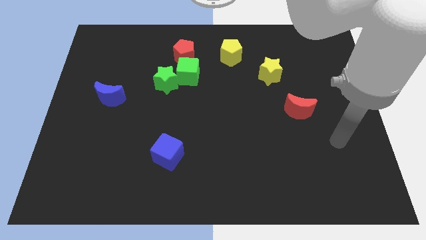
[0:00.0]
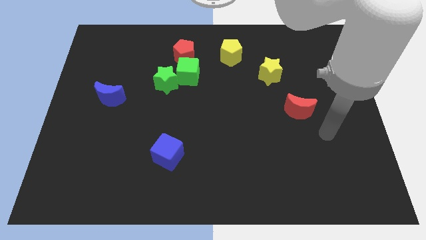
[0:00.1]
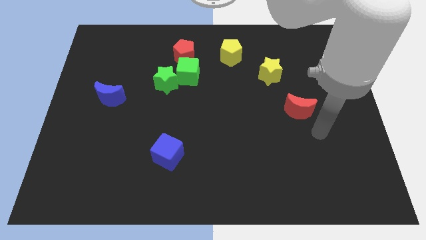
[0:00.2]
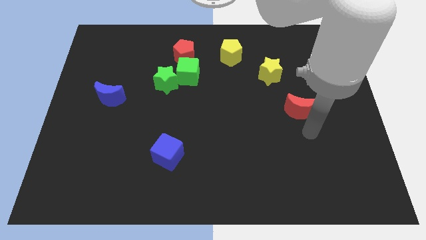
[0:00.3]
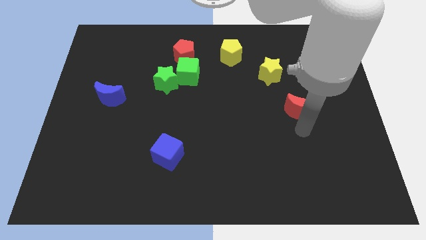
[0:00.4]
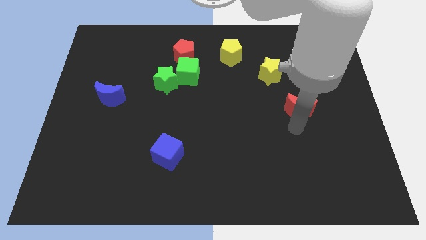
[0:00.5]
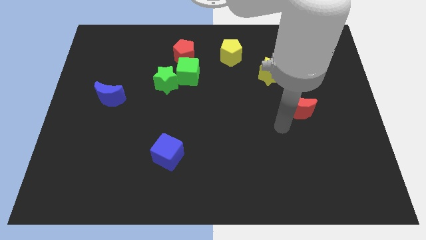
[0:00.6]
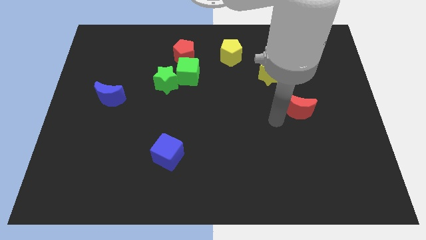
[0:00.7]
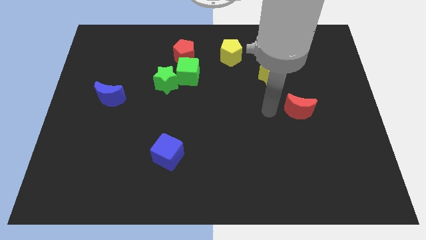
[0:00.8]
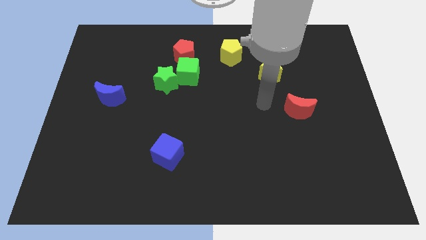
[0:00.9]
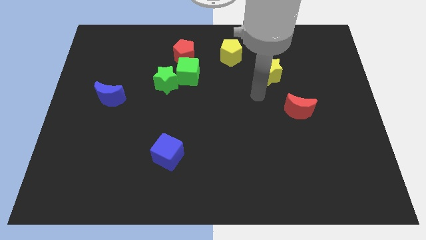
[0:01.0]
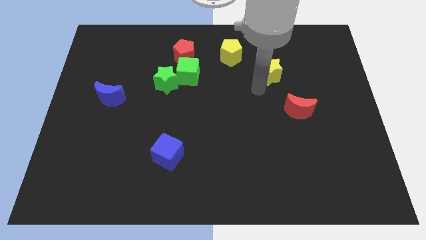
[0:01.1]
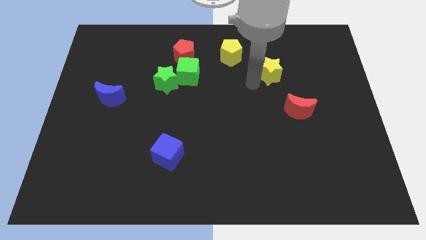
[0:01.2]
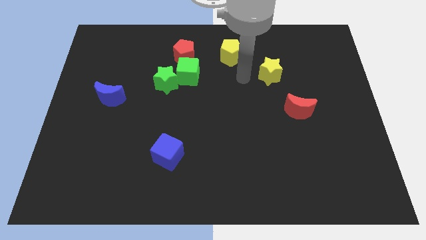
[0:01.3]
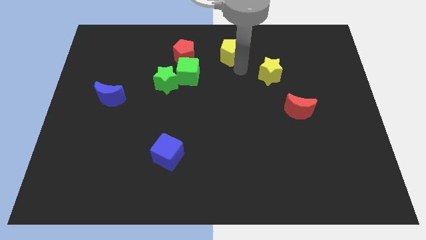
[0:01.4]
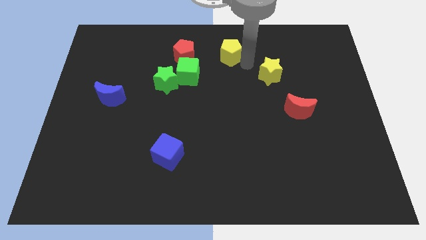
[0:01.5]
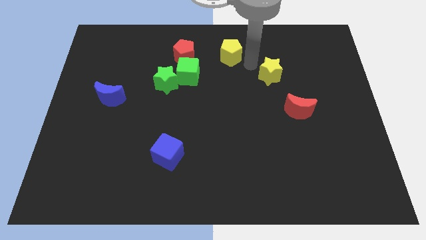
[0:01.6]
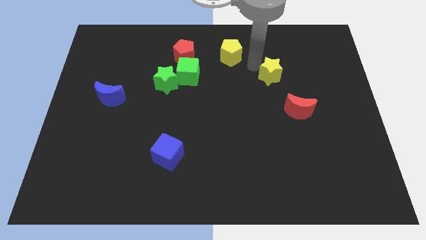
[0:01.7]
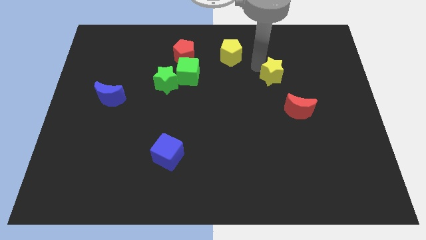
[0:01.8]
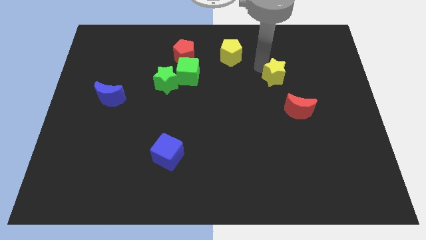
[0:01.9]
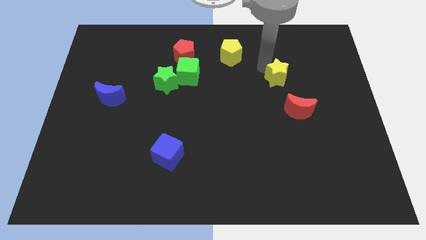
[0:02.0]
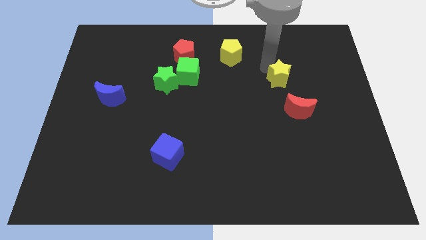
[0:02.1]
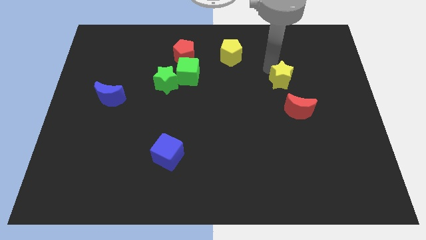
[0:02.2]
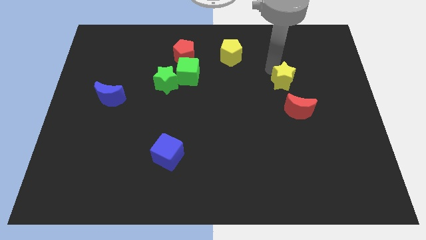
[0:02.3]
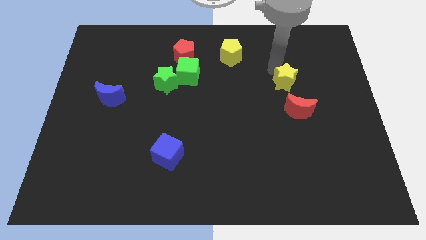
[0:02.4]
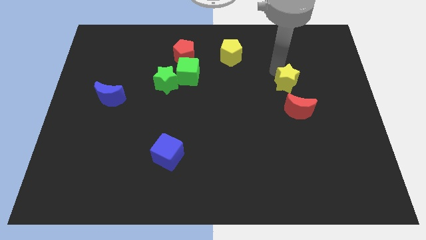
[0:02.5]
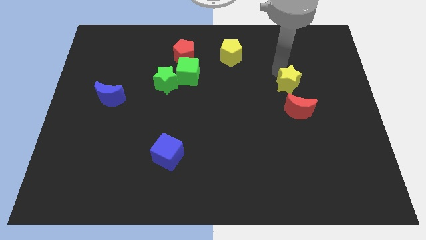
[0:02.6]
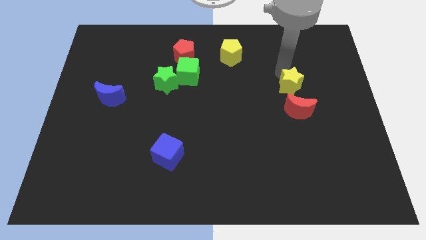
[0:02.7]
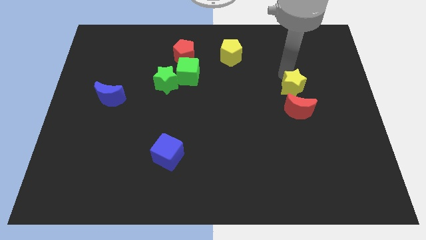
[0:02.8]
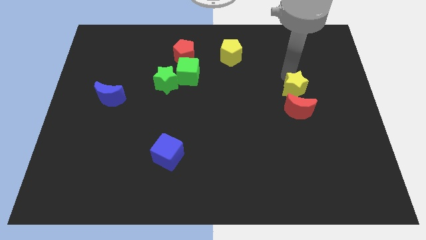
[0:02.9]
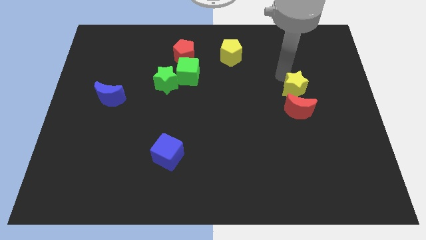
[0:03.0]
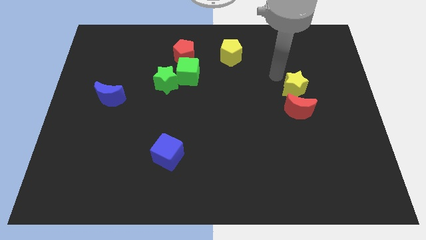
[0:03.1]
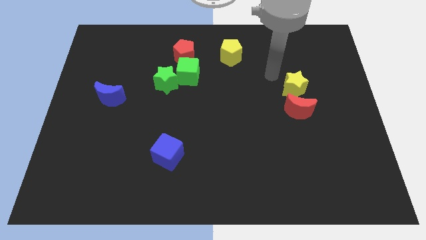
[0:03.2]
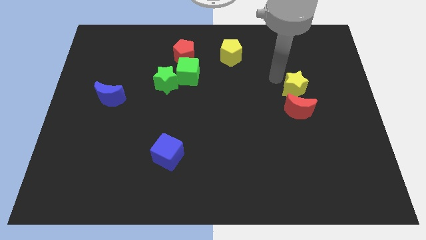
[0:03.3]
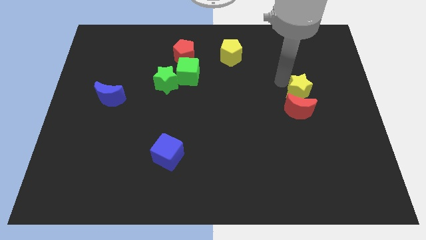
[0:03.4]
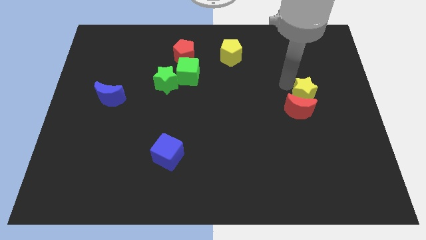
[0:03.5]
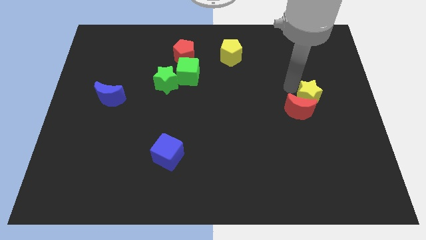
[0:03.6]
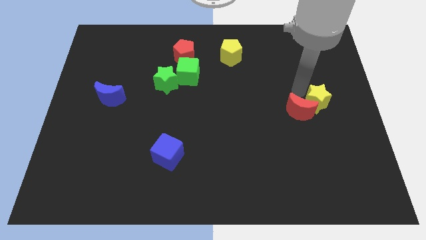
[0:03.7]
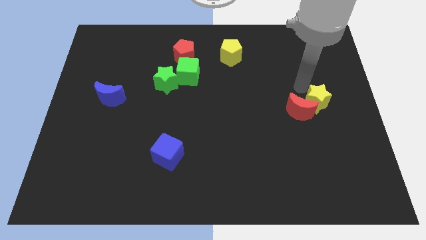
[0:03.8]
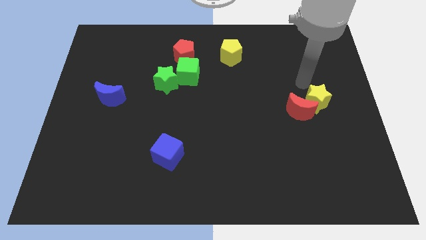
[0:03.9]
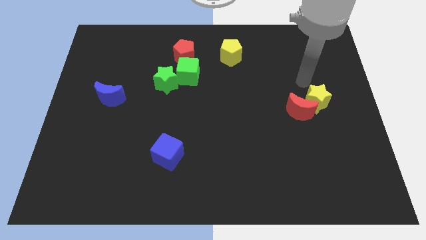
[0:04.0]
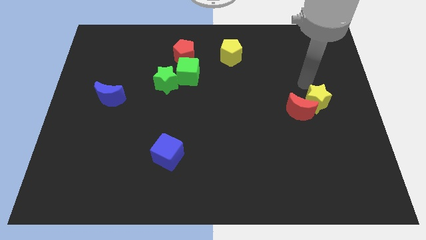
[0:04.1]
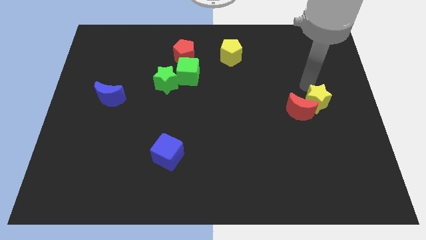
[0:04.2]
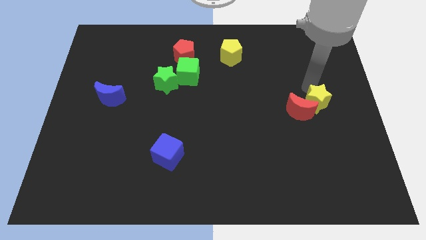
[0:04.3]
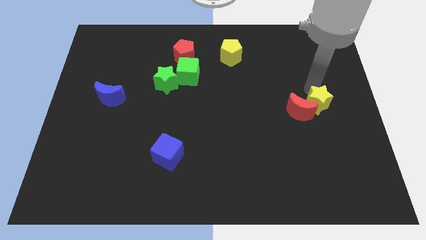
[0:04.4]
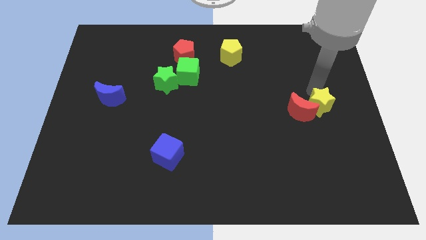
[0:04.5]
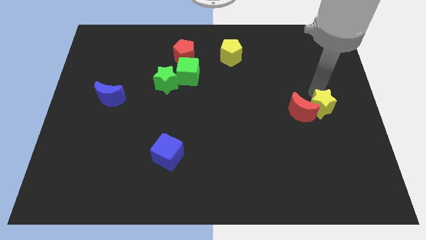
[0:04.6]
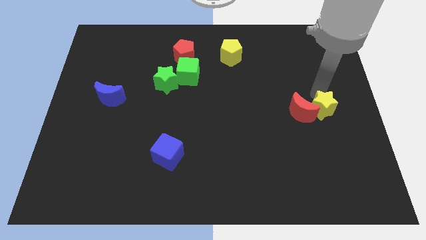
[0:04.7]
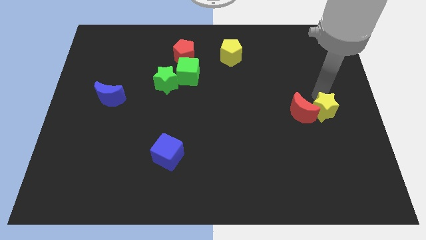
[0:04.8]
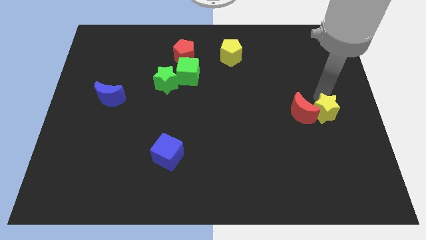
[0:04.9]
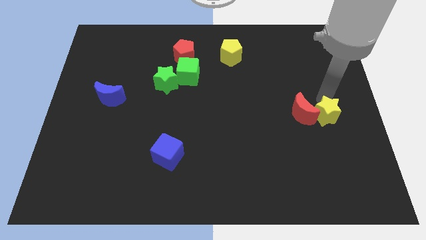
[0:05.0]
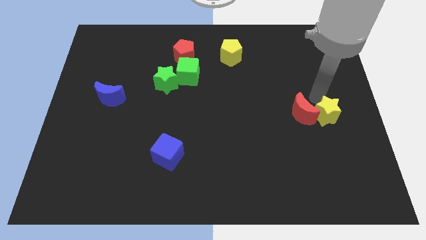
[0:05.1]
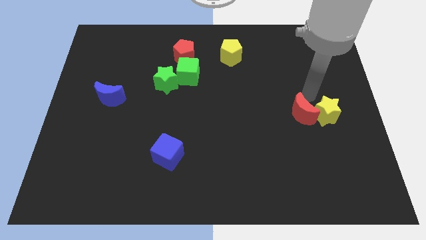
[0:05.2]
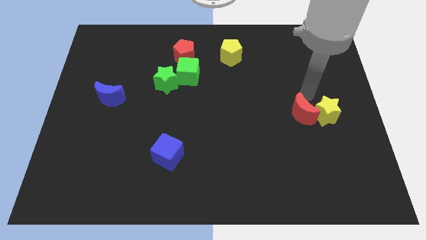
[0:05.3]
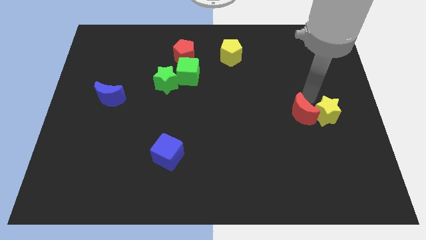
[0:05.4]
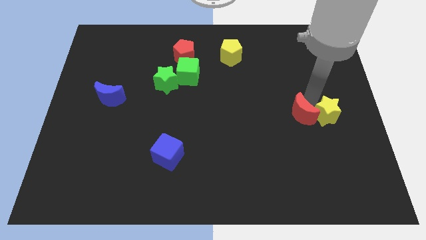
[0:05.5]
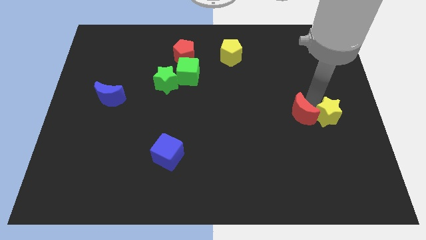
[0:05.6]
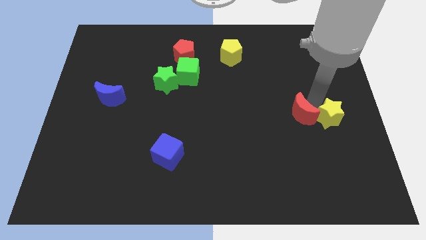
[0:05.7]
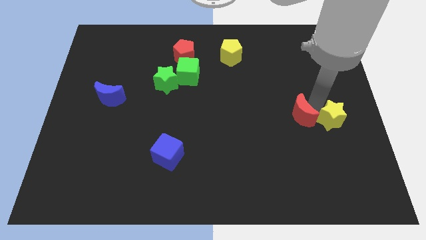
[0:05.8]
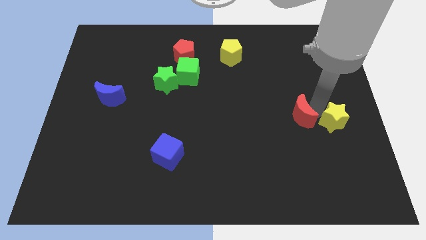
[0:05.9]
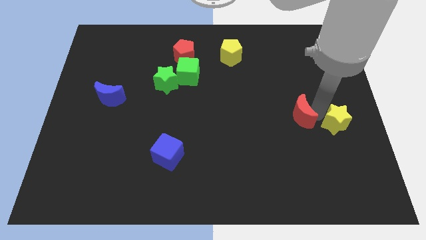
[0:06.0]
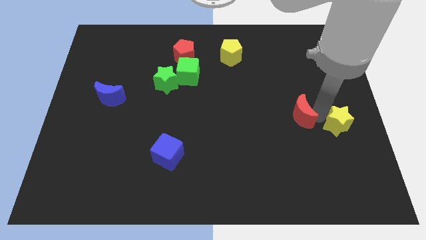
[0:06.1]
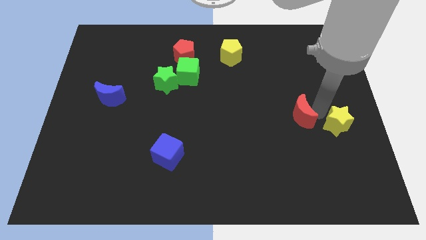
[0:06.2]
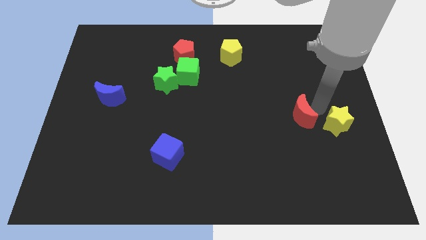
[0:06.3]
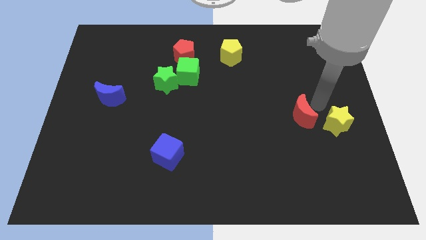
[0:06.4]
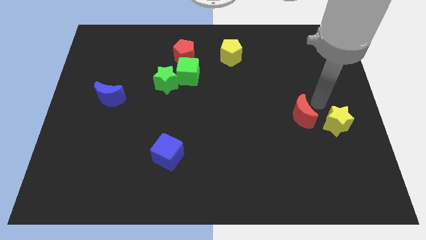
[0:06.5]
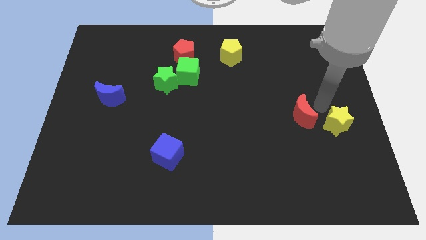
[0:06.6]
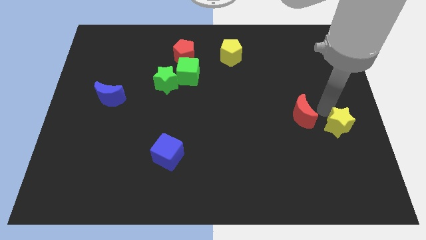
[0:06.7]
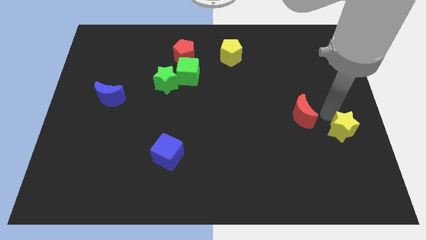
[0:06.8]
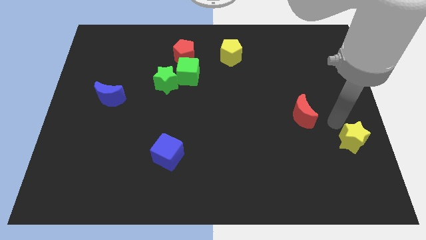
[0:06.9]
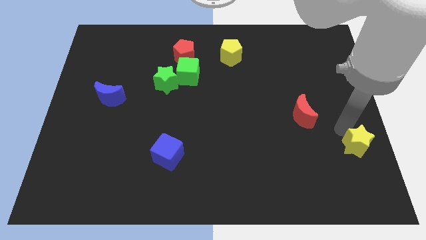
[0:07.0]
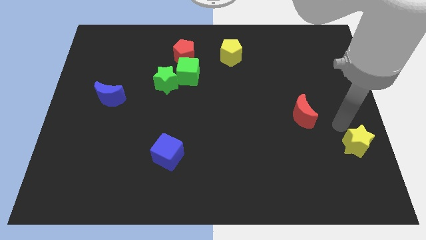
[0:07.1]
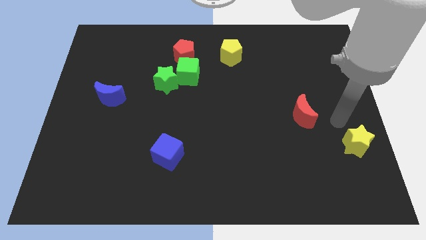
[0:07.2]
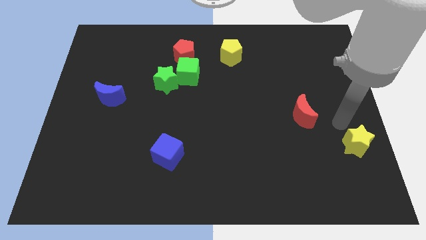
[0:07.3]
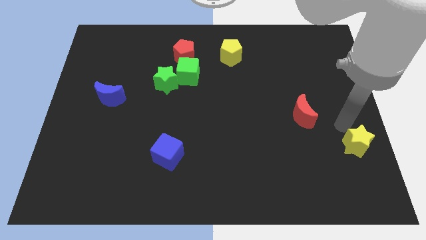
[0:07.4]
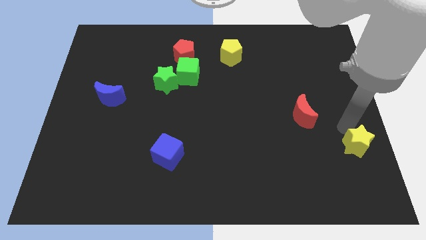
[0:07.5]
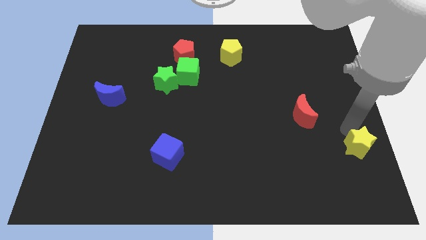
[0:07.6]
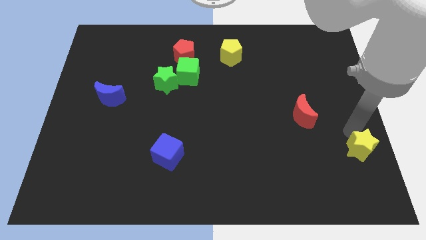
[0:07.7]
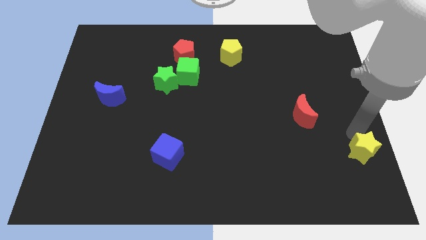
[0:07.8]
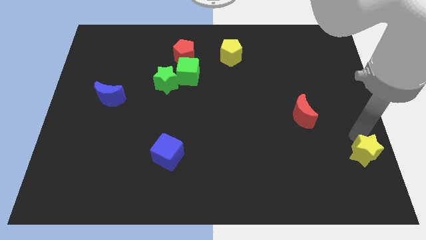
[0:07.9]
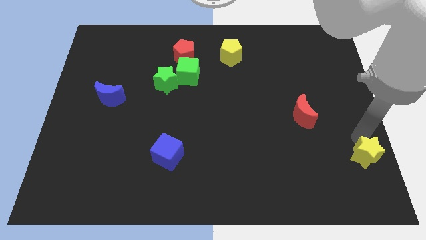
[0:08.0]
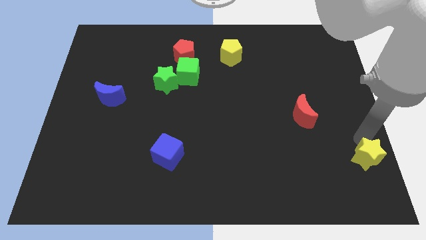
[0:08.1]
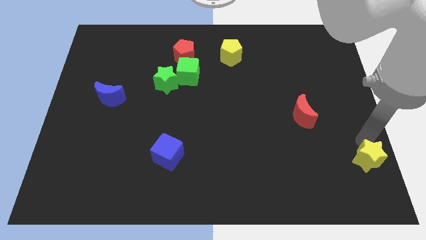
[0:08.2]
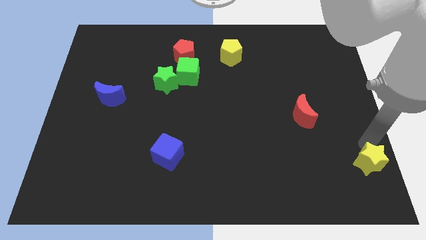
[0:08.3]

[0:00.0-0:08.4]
put the yellow star to the bottom right
